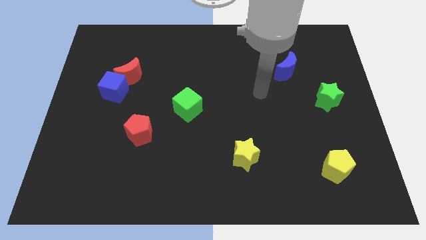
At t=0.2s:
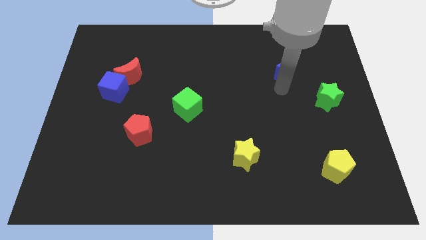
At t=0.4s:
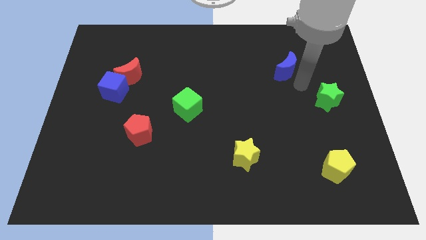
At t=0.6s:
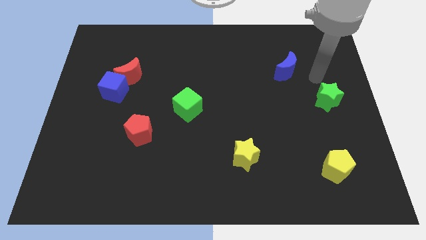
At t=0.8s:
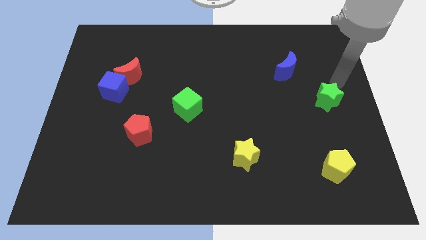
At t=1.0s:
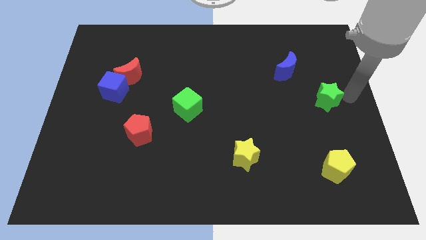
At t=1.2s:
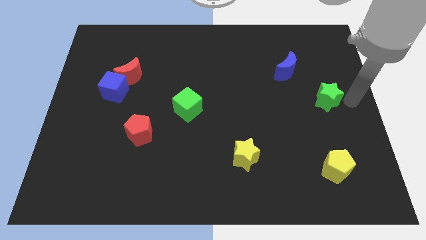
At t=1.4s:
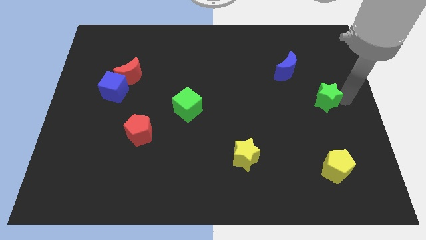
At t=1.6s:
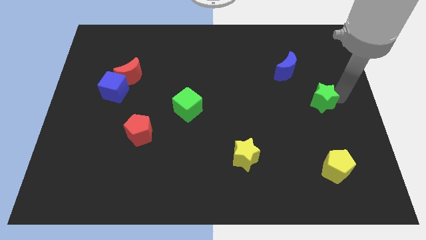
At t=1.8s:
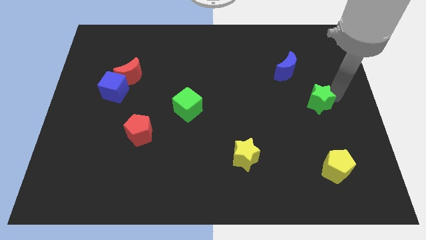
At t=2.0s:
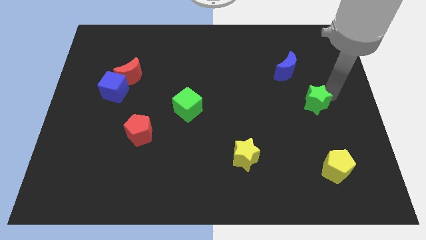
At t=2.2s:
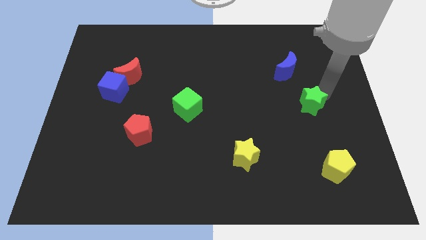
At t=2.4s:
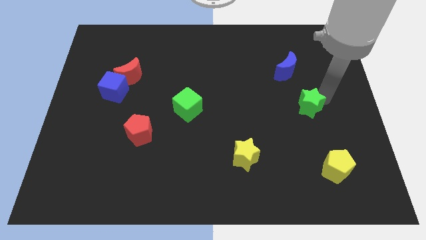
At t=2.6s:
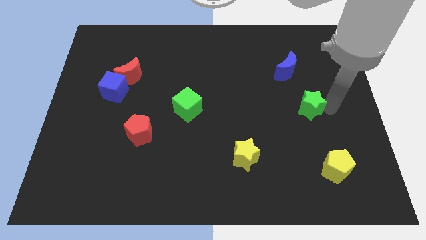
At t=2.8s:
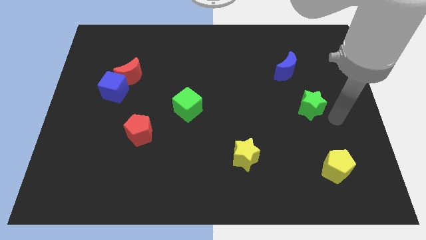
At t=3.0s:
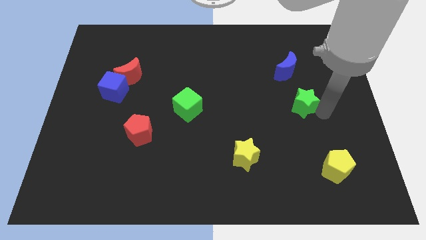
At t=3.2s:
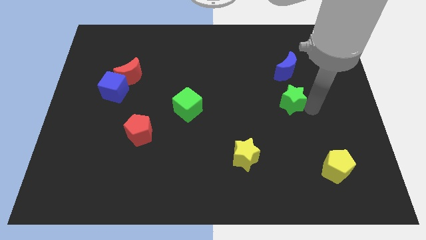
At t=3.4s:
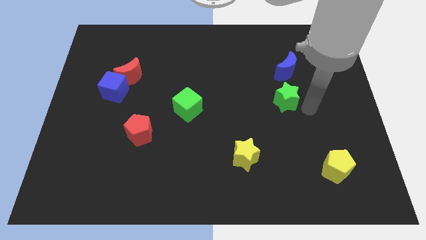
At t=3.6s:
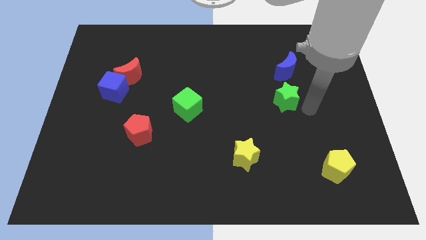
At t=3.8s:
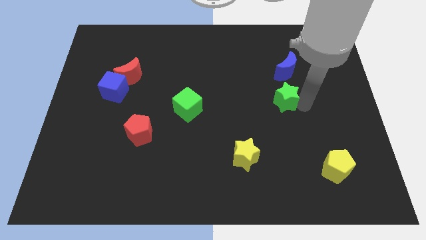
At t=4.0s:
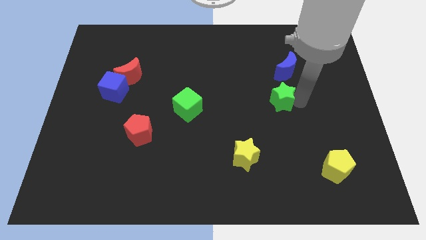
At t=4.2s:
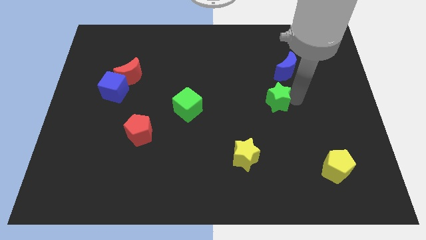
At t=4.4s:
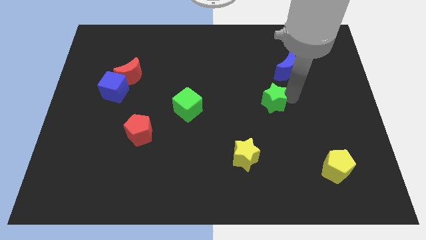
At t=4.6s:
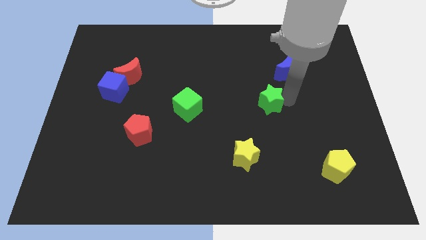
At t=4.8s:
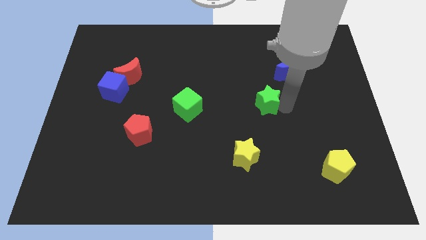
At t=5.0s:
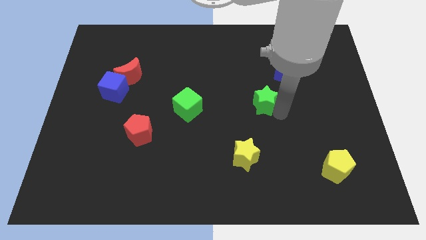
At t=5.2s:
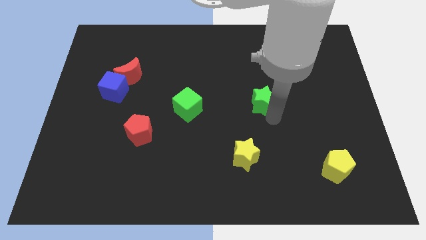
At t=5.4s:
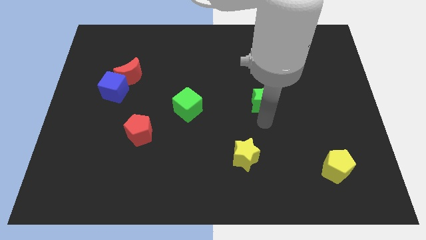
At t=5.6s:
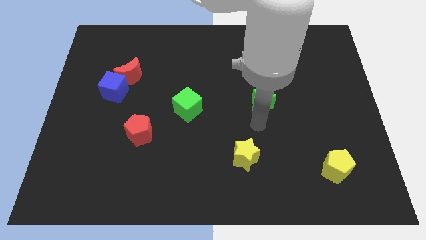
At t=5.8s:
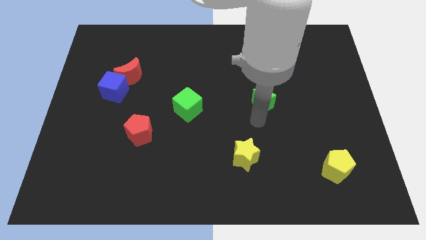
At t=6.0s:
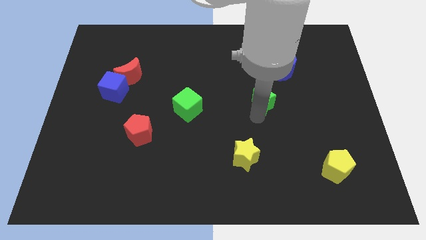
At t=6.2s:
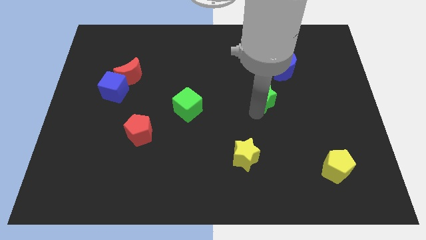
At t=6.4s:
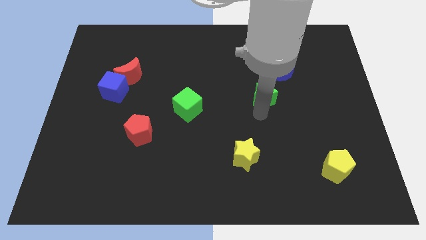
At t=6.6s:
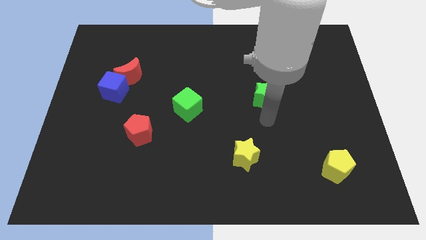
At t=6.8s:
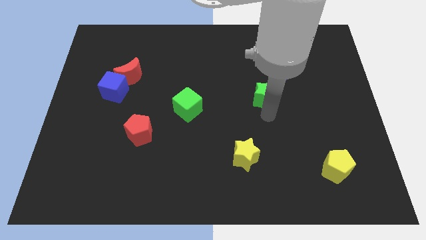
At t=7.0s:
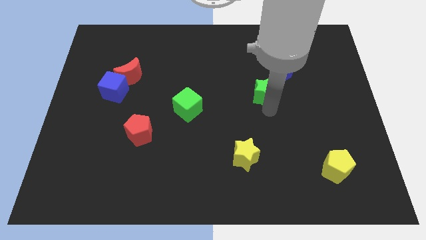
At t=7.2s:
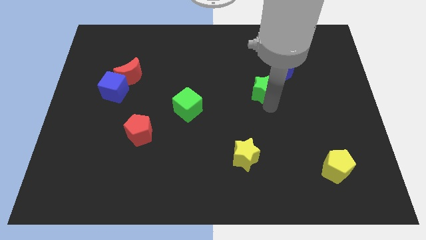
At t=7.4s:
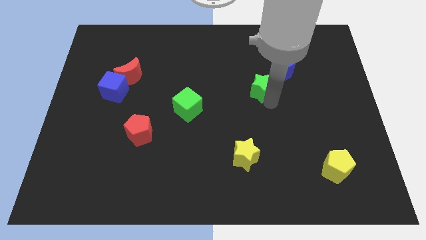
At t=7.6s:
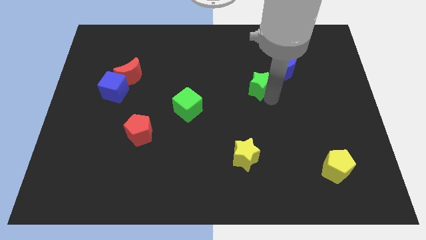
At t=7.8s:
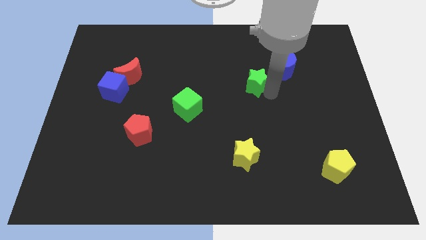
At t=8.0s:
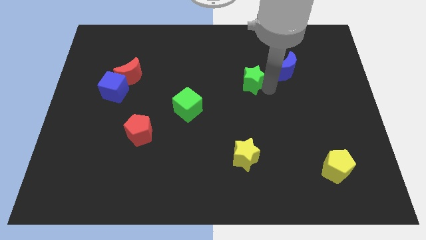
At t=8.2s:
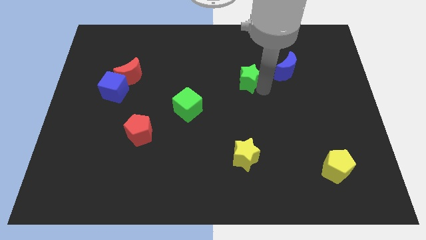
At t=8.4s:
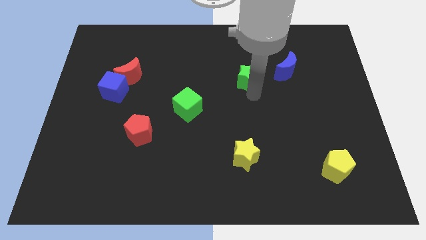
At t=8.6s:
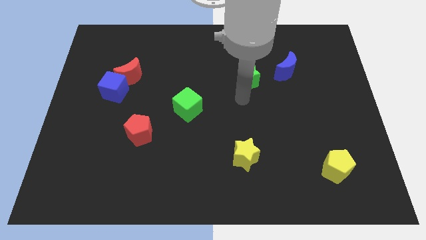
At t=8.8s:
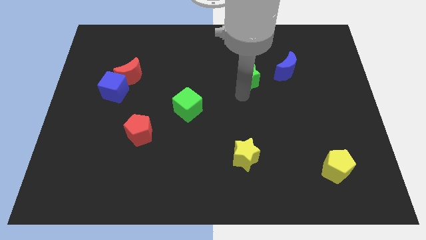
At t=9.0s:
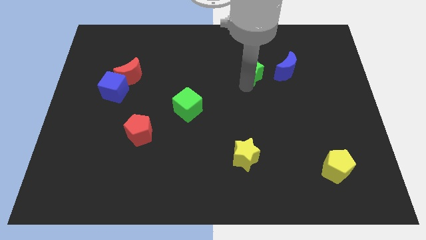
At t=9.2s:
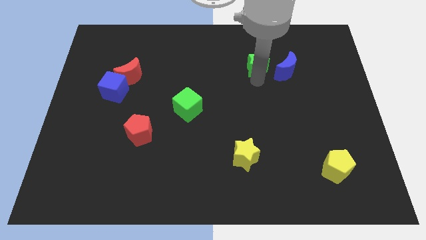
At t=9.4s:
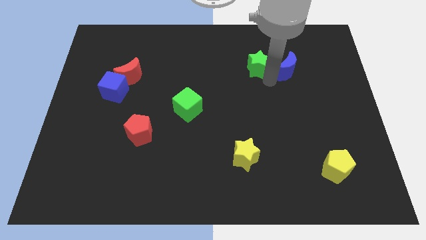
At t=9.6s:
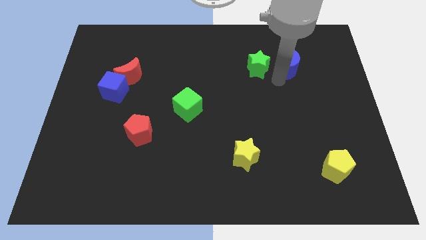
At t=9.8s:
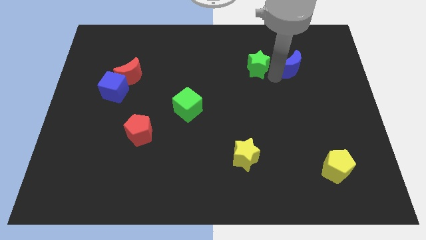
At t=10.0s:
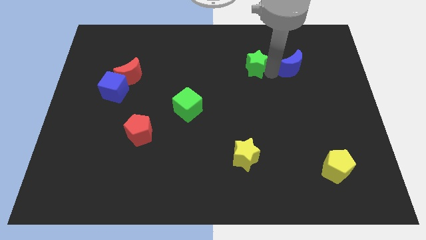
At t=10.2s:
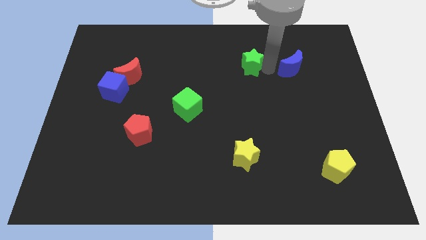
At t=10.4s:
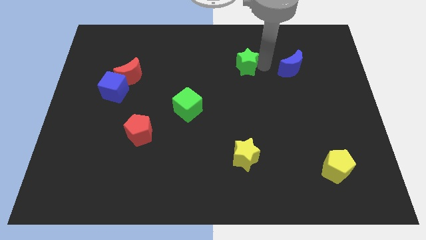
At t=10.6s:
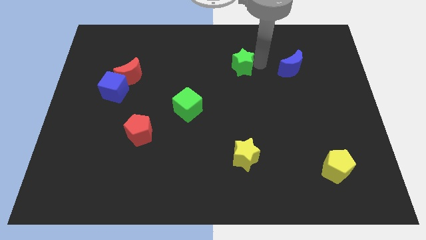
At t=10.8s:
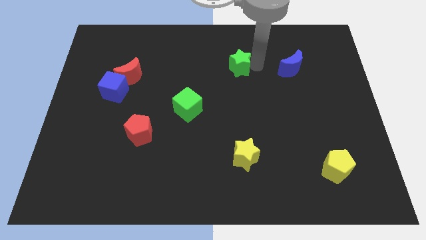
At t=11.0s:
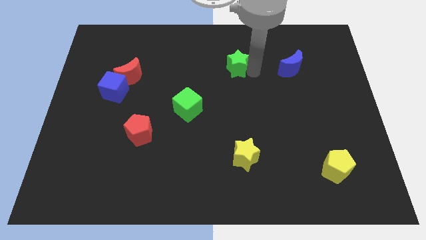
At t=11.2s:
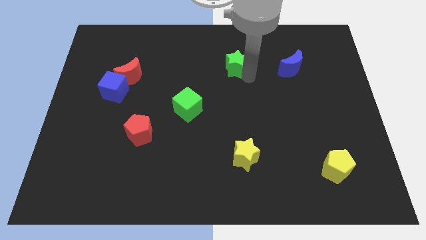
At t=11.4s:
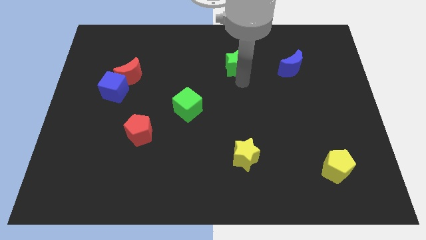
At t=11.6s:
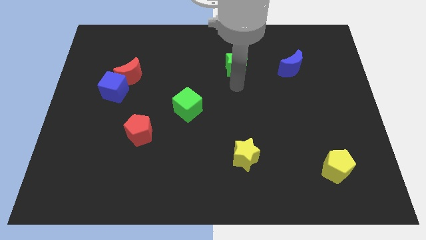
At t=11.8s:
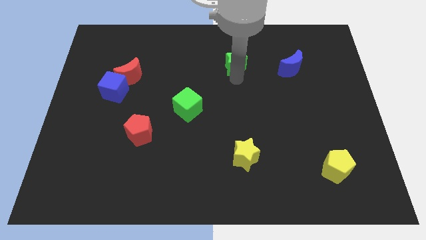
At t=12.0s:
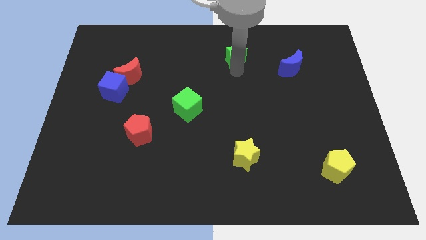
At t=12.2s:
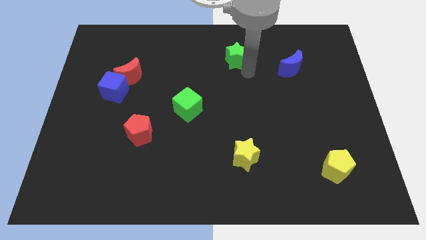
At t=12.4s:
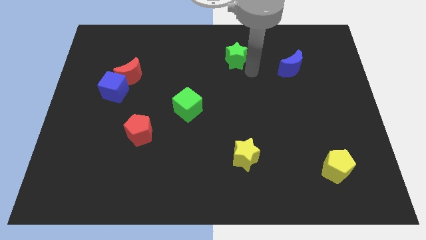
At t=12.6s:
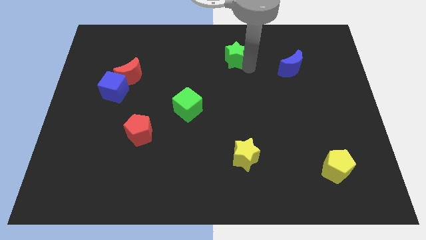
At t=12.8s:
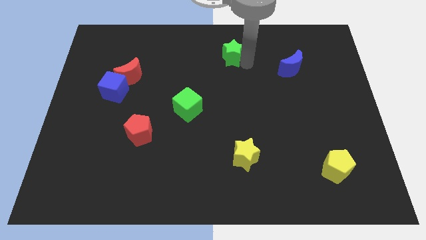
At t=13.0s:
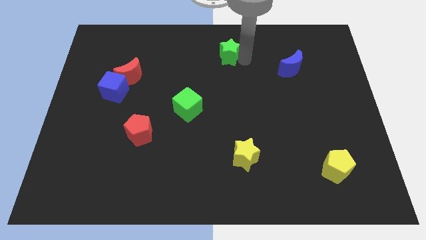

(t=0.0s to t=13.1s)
slide the green star to the top
